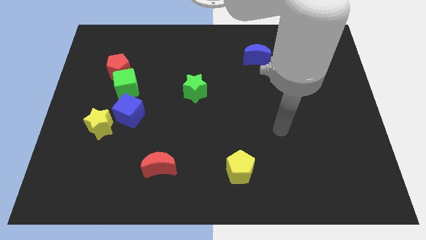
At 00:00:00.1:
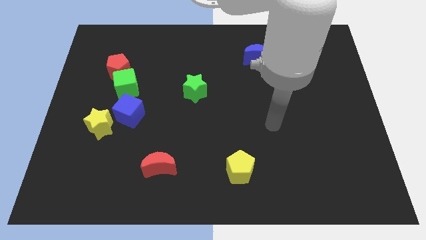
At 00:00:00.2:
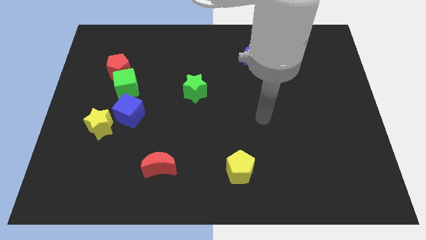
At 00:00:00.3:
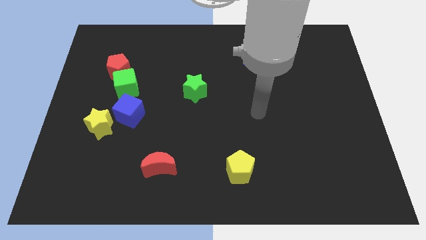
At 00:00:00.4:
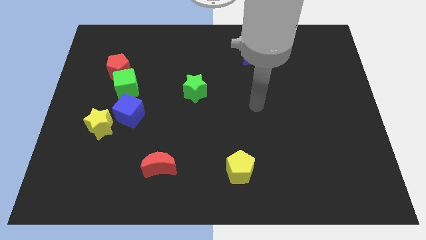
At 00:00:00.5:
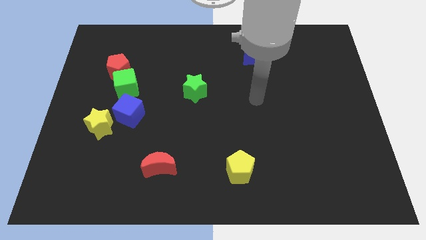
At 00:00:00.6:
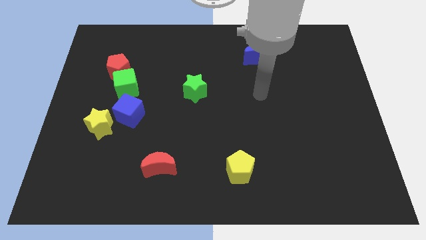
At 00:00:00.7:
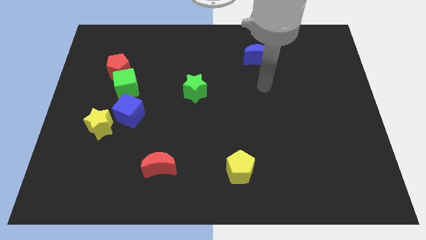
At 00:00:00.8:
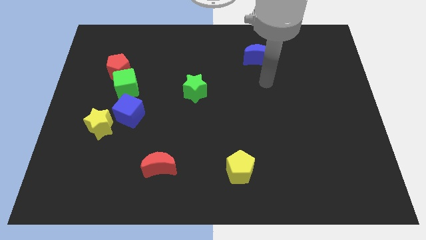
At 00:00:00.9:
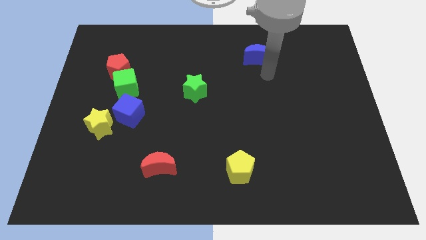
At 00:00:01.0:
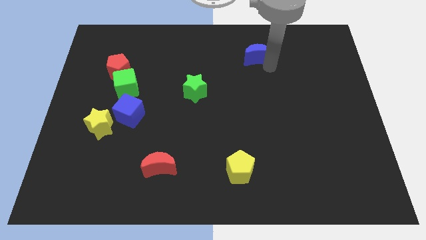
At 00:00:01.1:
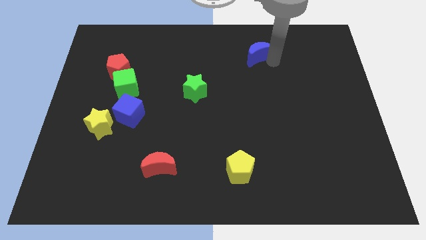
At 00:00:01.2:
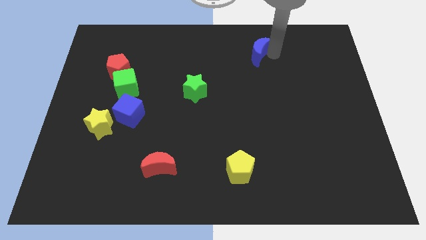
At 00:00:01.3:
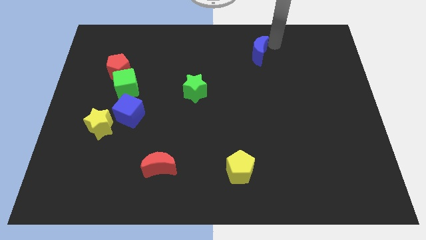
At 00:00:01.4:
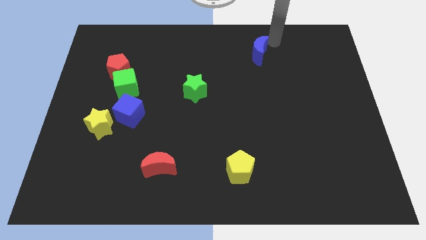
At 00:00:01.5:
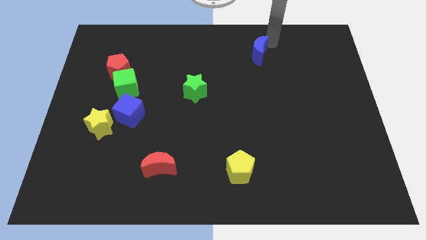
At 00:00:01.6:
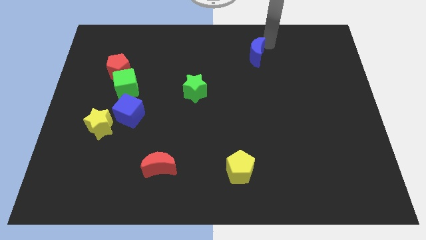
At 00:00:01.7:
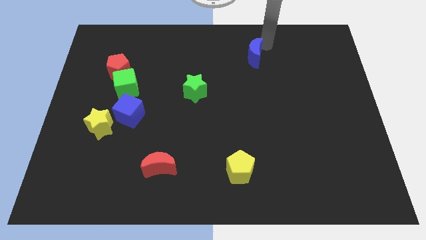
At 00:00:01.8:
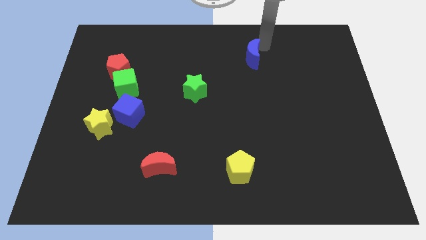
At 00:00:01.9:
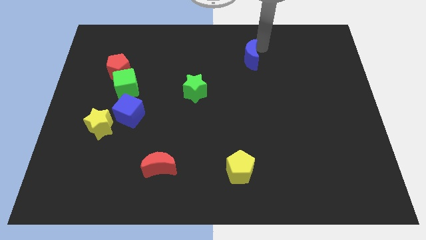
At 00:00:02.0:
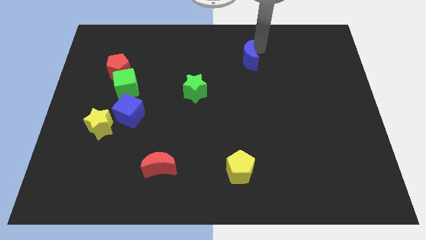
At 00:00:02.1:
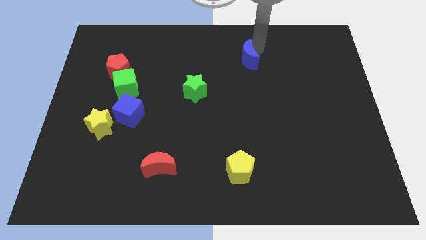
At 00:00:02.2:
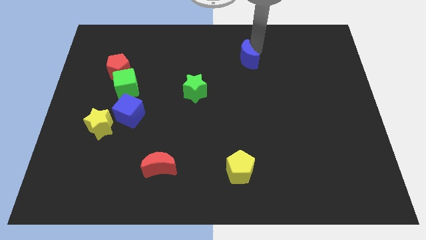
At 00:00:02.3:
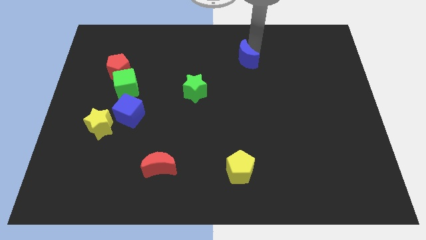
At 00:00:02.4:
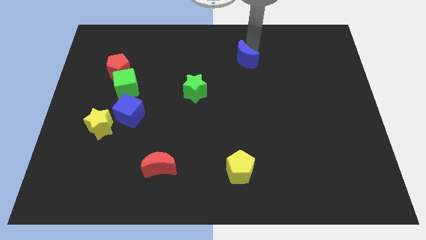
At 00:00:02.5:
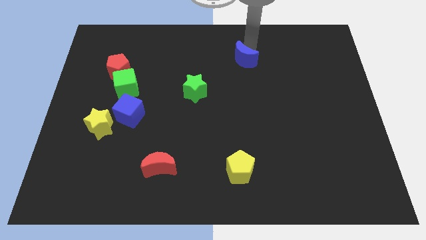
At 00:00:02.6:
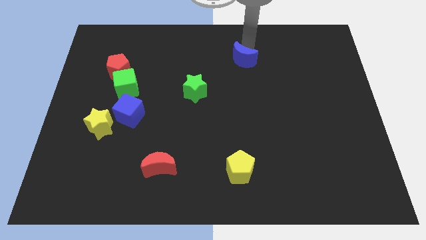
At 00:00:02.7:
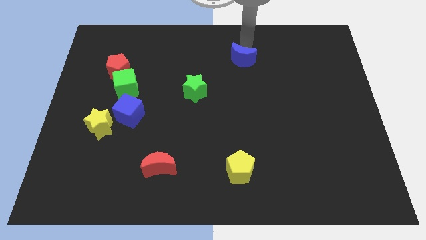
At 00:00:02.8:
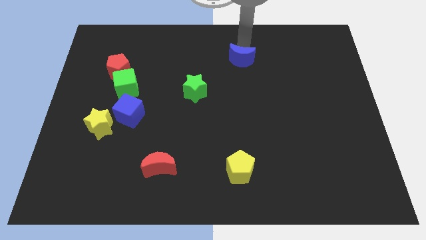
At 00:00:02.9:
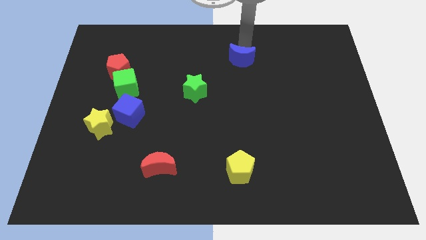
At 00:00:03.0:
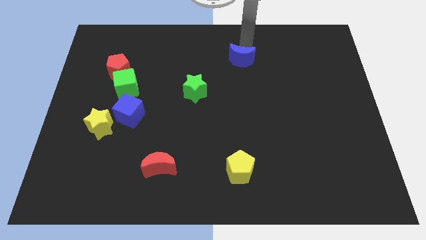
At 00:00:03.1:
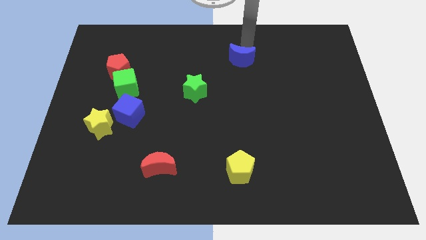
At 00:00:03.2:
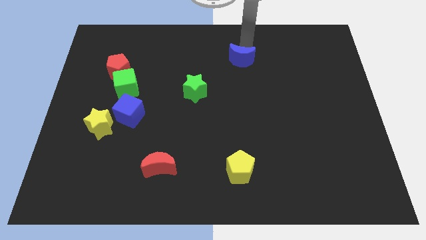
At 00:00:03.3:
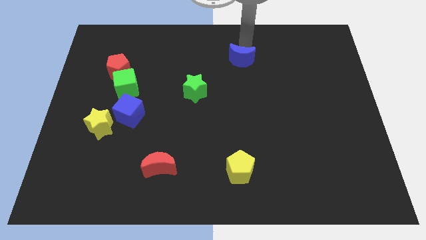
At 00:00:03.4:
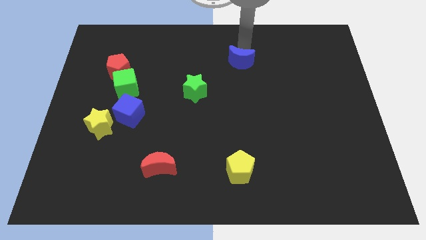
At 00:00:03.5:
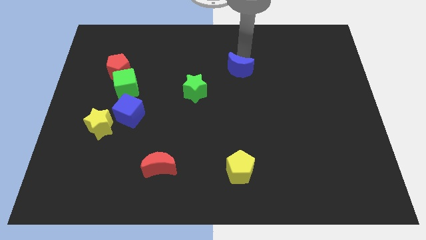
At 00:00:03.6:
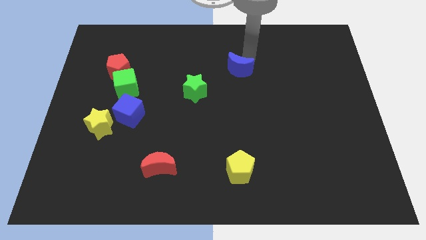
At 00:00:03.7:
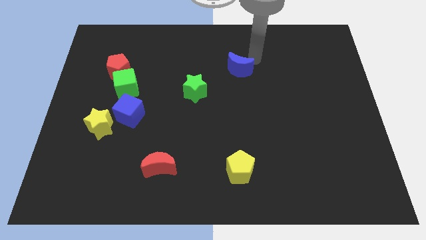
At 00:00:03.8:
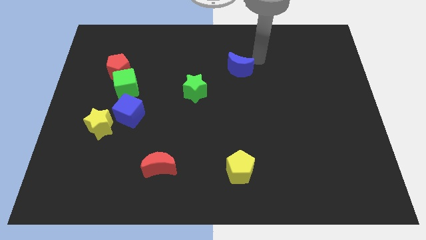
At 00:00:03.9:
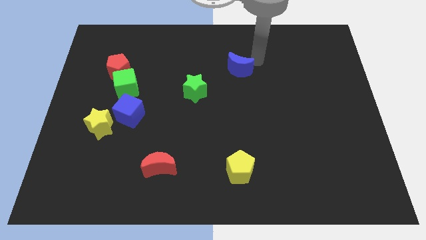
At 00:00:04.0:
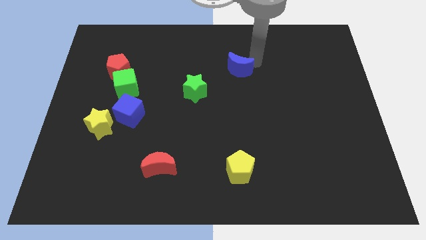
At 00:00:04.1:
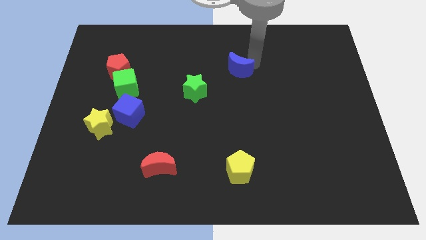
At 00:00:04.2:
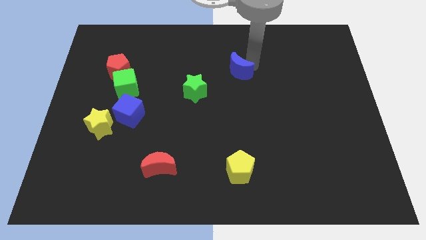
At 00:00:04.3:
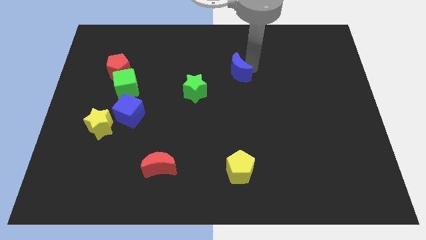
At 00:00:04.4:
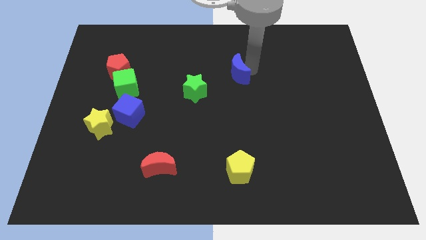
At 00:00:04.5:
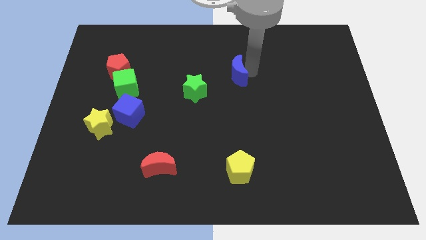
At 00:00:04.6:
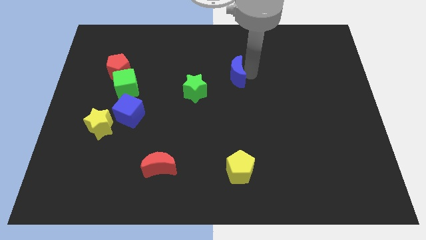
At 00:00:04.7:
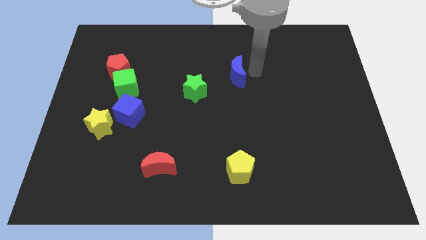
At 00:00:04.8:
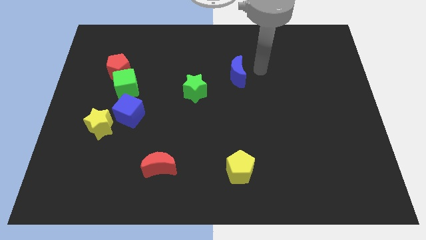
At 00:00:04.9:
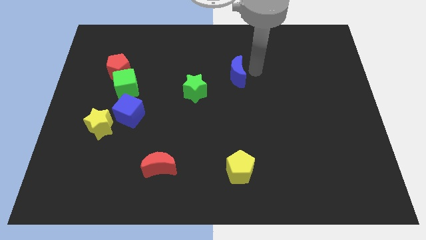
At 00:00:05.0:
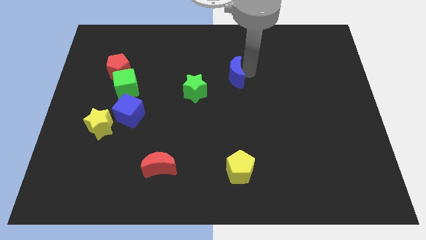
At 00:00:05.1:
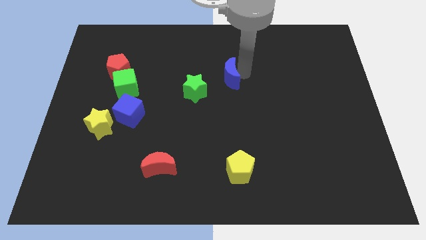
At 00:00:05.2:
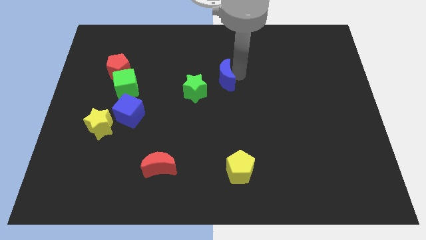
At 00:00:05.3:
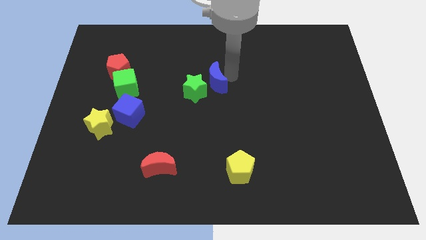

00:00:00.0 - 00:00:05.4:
slide the blue moon next to the green star

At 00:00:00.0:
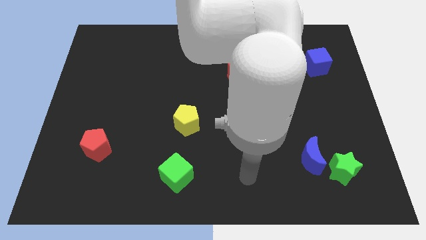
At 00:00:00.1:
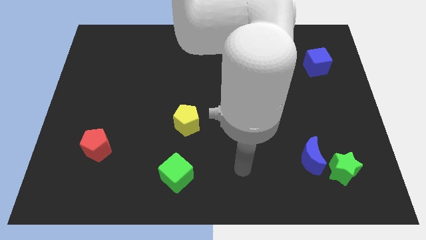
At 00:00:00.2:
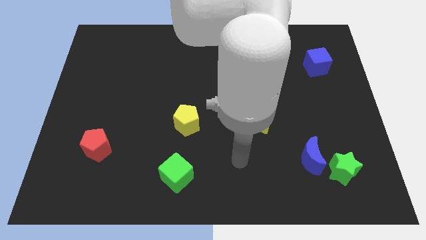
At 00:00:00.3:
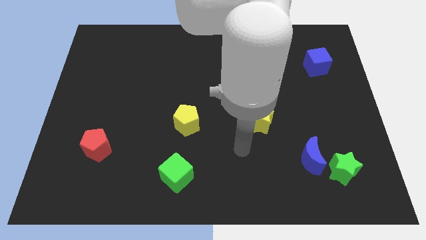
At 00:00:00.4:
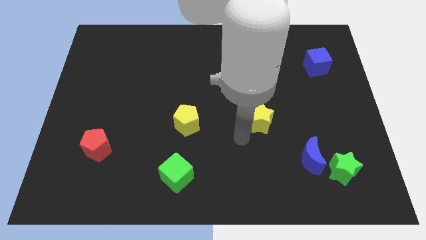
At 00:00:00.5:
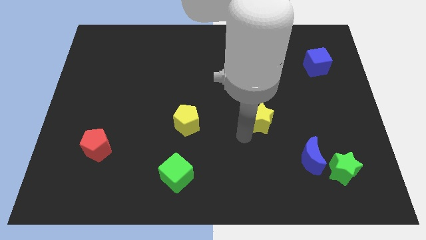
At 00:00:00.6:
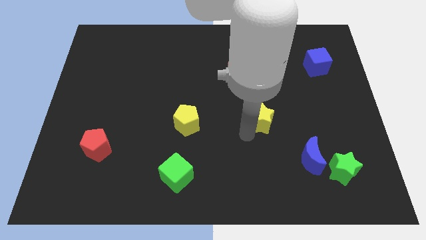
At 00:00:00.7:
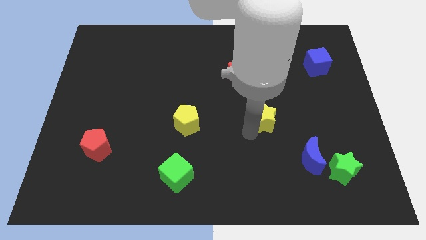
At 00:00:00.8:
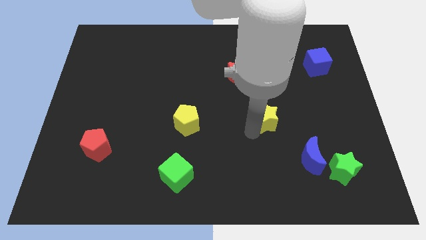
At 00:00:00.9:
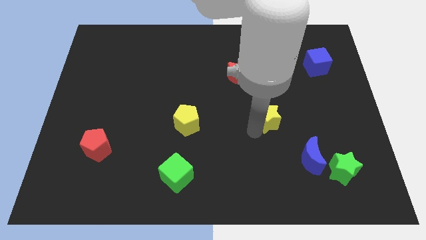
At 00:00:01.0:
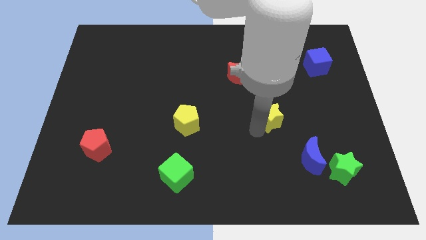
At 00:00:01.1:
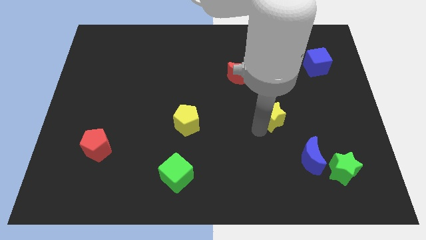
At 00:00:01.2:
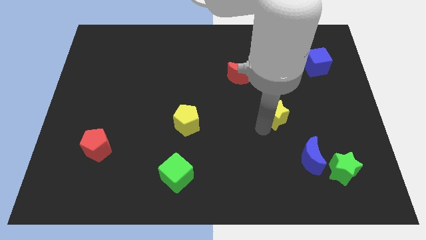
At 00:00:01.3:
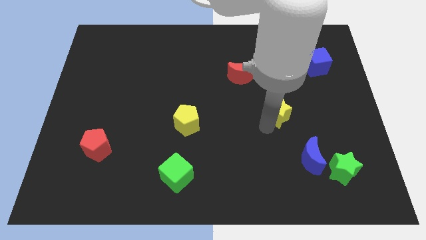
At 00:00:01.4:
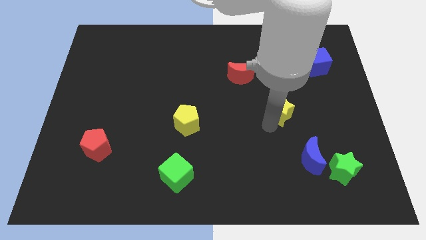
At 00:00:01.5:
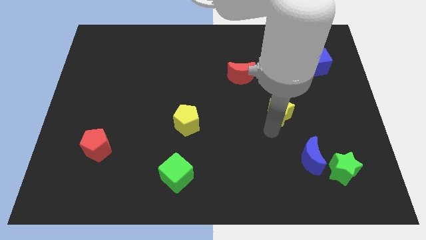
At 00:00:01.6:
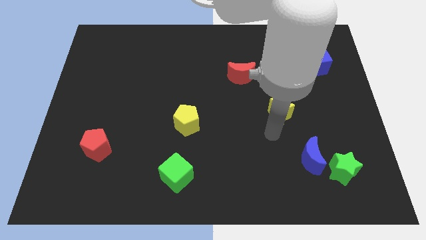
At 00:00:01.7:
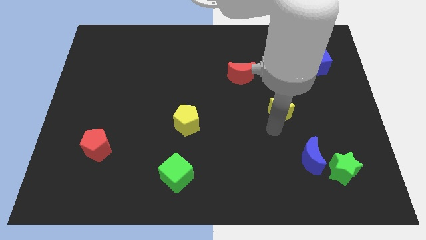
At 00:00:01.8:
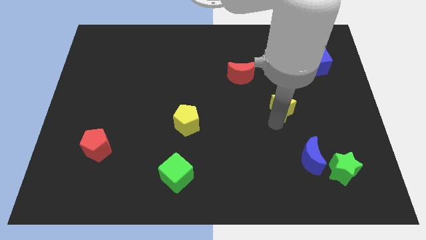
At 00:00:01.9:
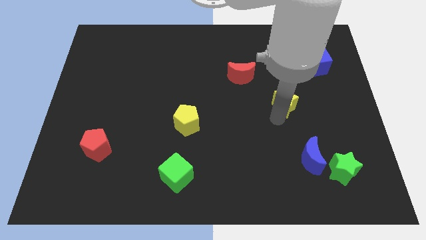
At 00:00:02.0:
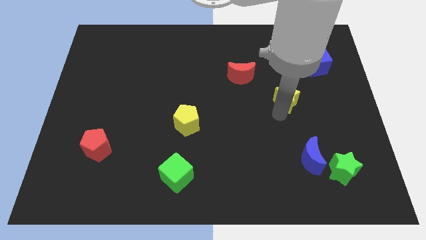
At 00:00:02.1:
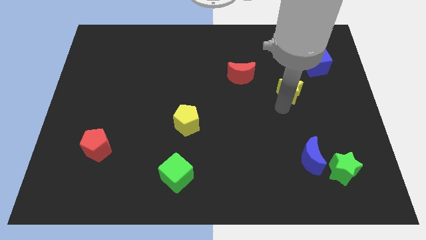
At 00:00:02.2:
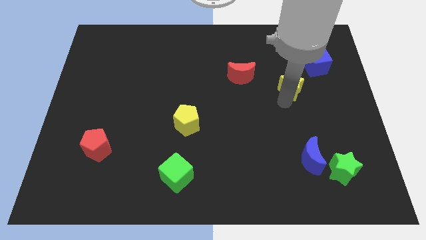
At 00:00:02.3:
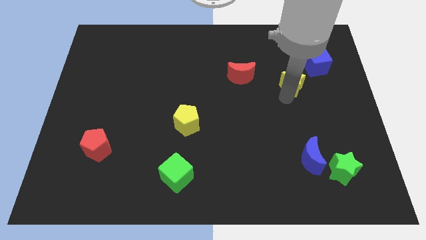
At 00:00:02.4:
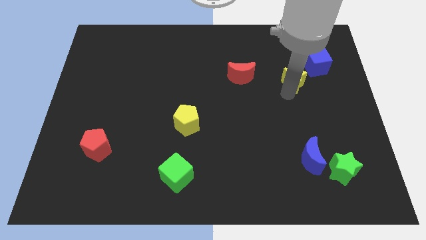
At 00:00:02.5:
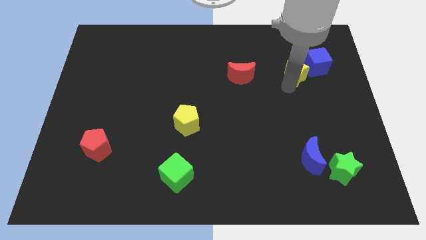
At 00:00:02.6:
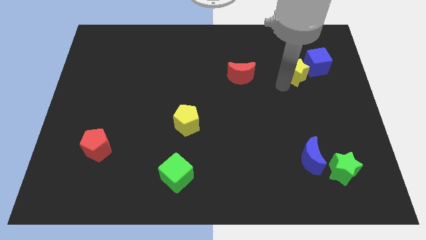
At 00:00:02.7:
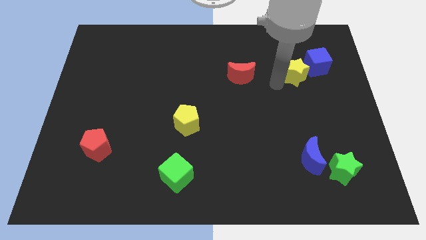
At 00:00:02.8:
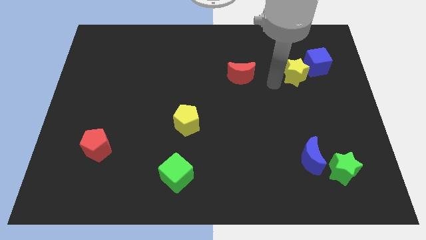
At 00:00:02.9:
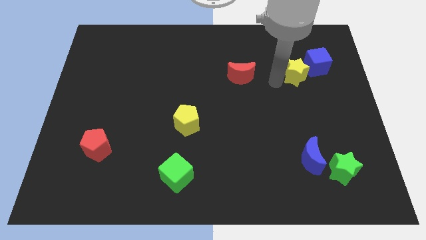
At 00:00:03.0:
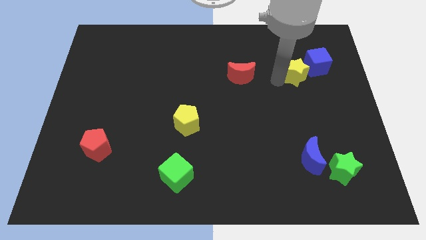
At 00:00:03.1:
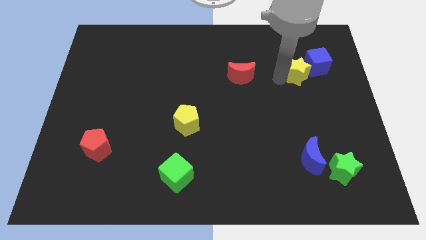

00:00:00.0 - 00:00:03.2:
slide the yellow star towards the blue cube
